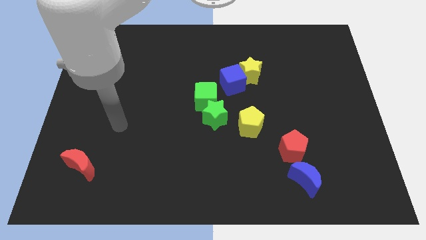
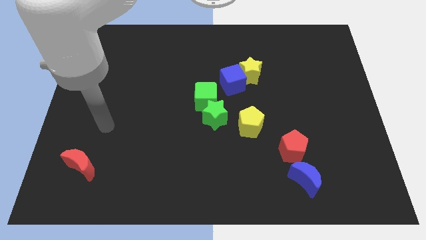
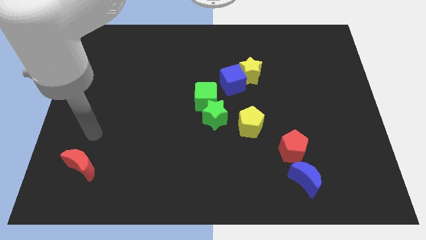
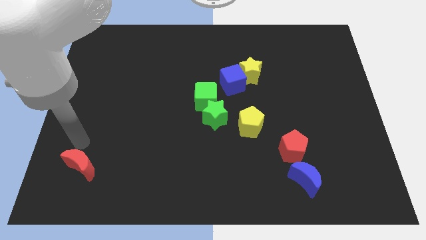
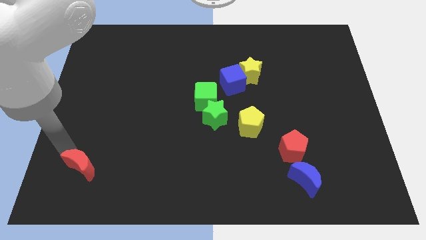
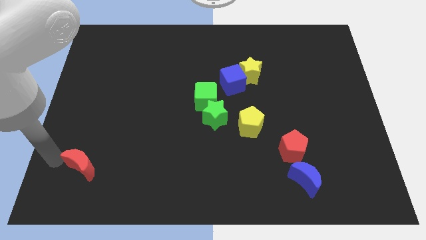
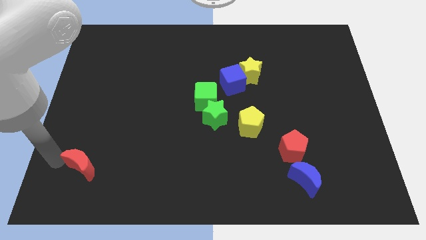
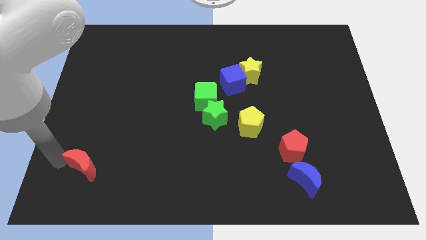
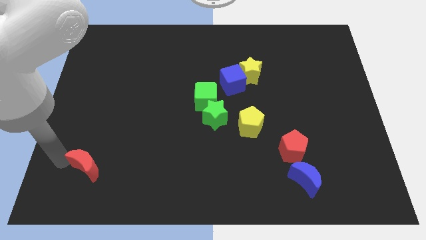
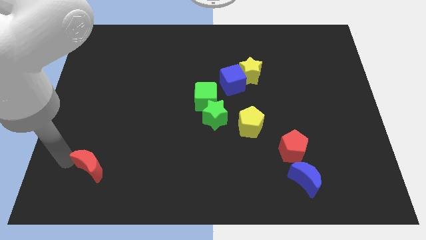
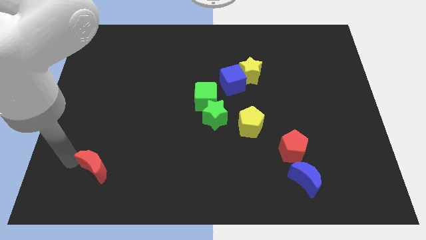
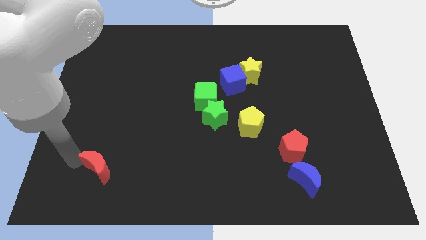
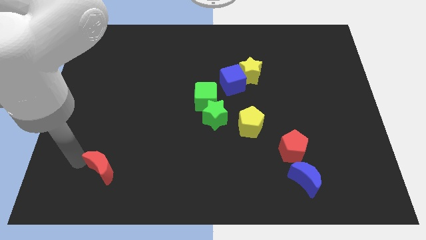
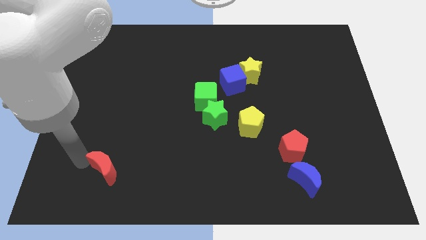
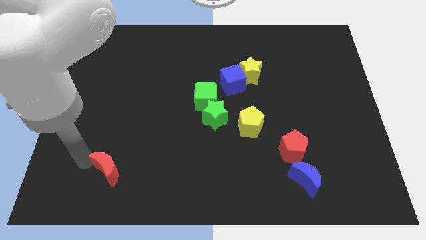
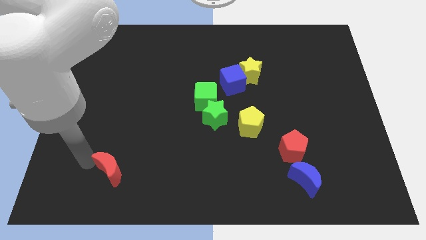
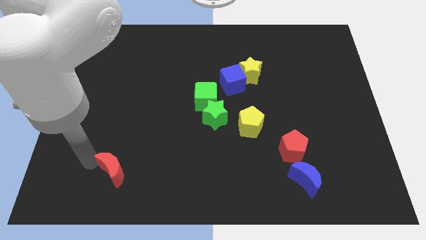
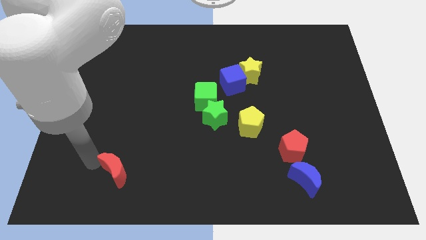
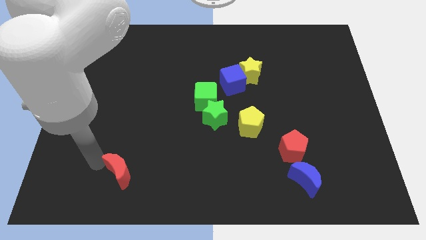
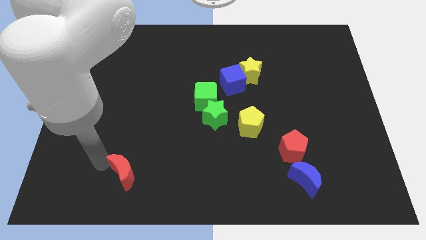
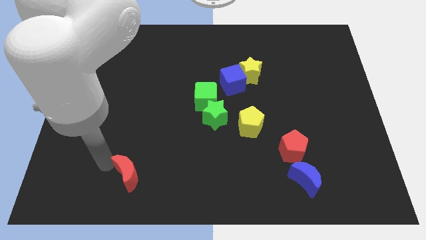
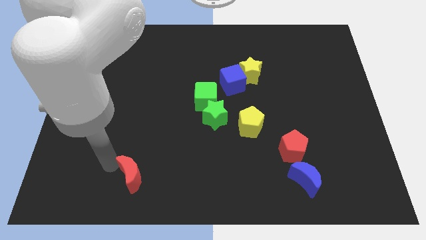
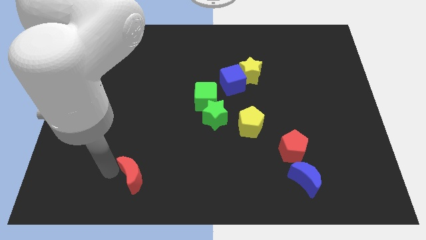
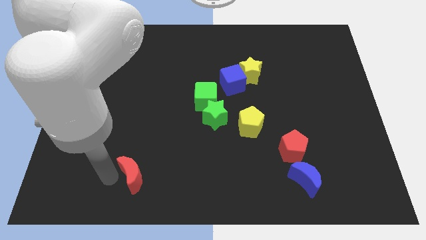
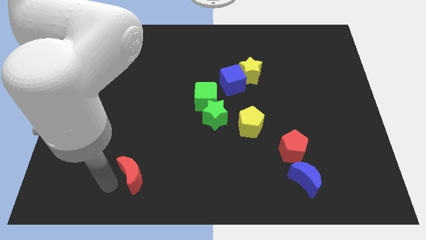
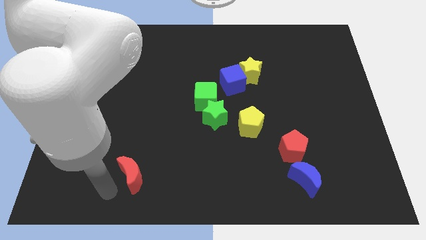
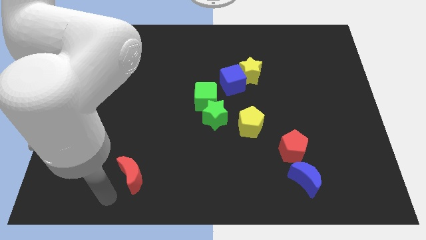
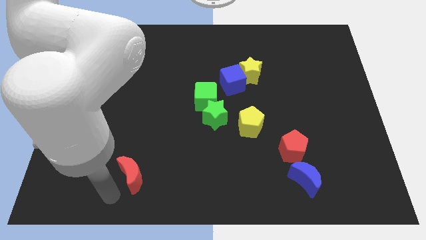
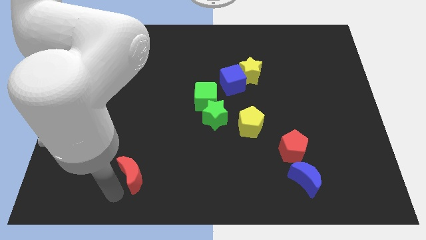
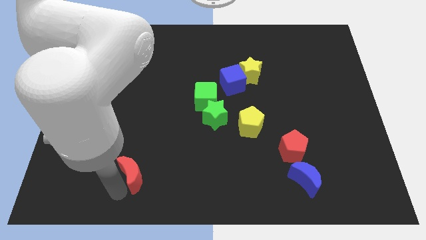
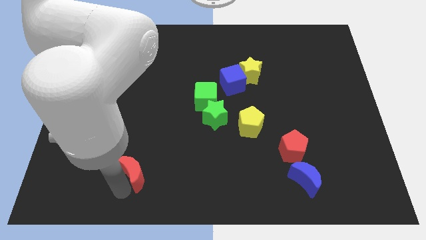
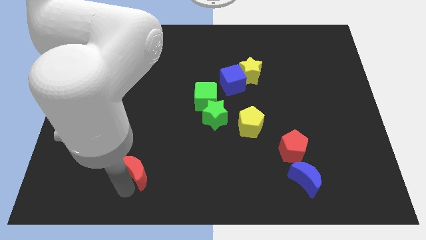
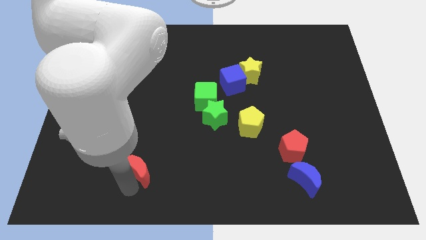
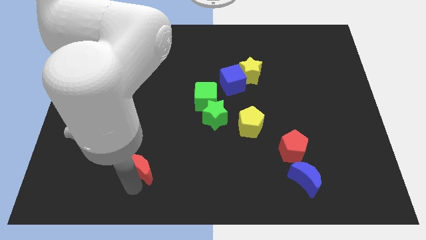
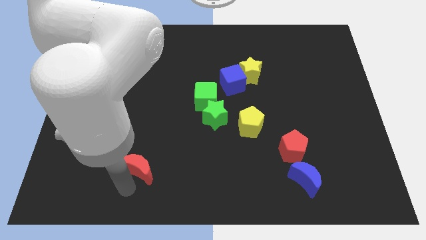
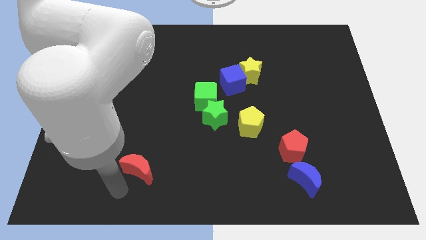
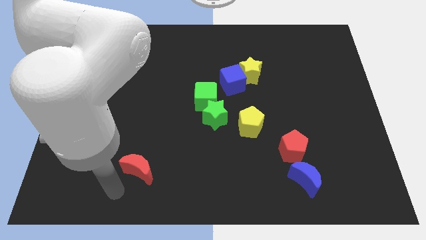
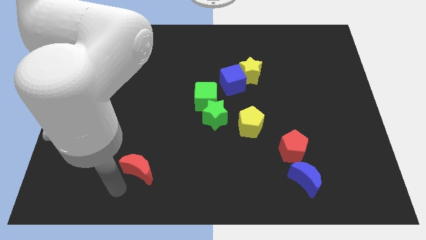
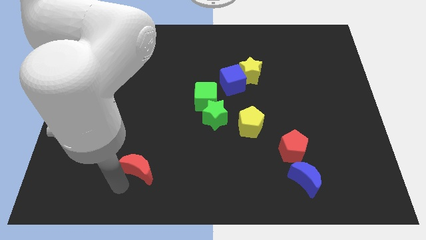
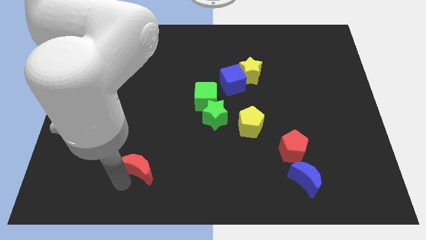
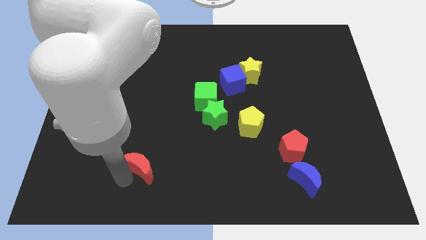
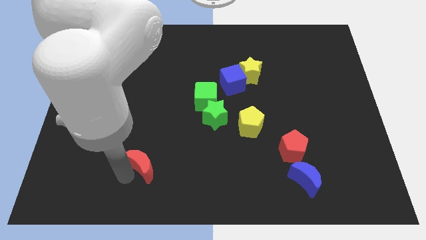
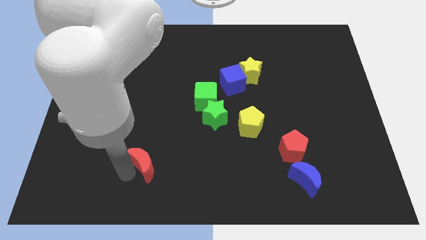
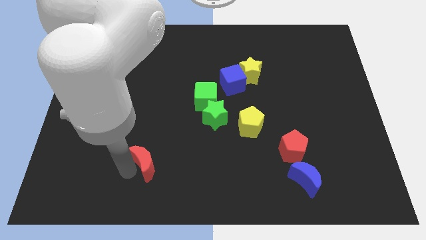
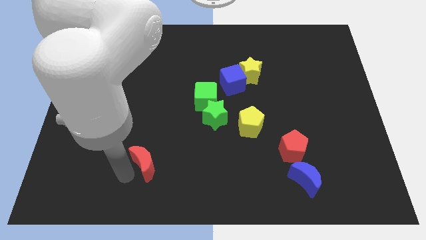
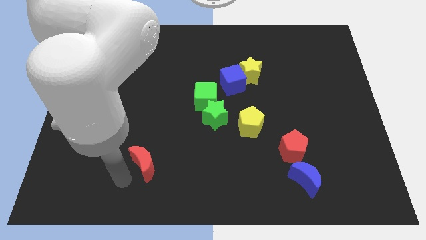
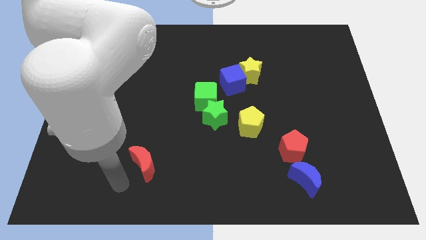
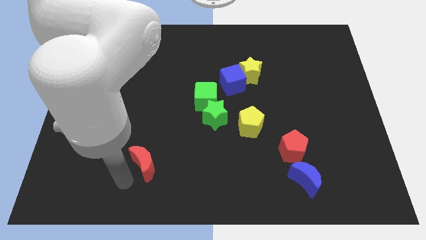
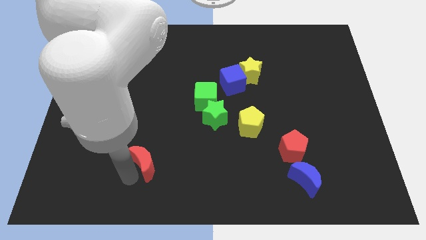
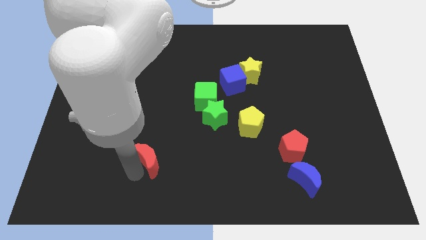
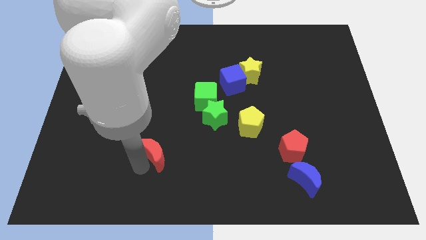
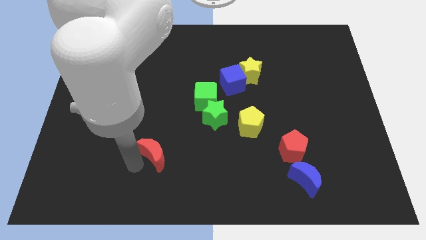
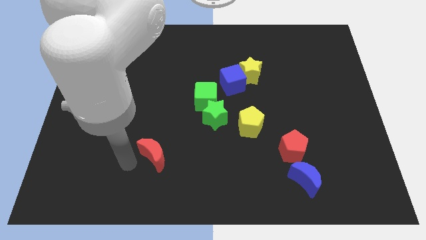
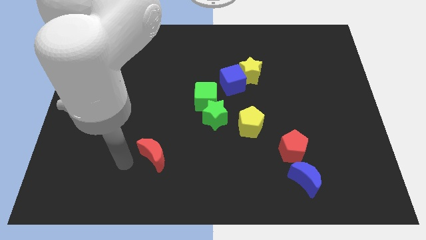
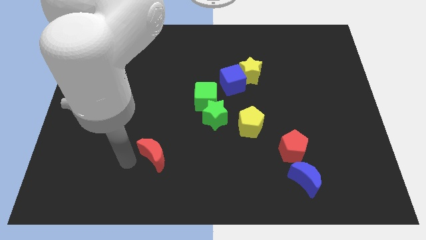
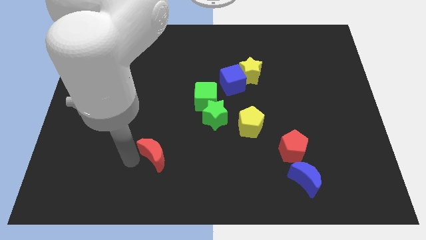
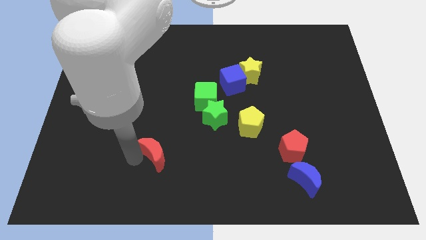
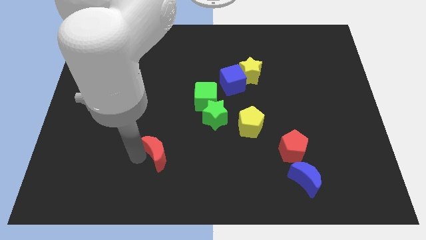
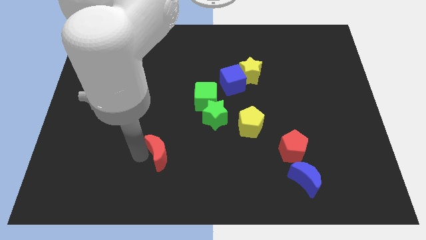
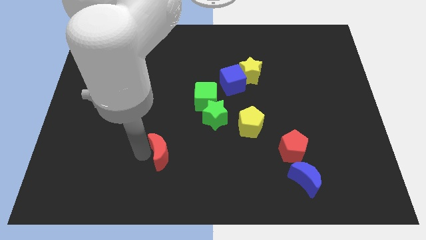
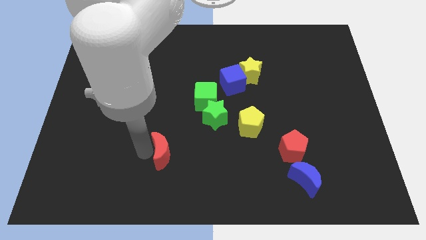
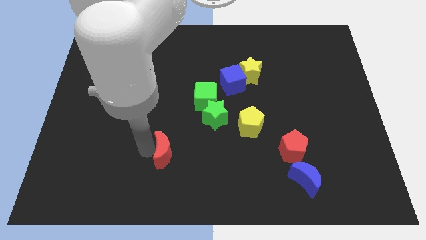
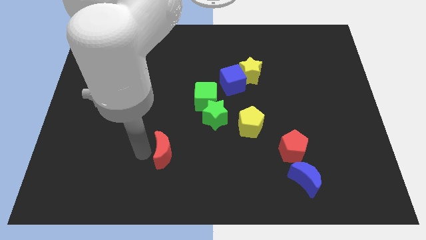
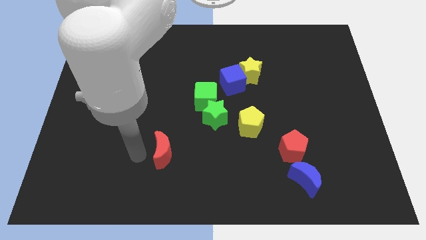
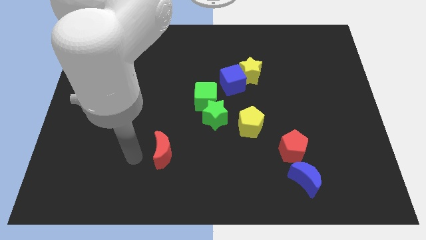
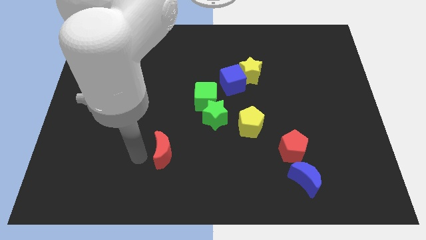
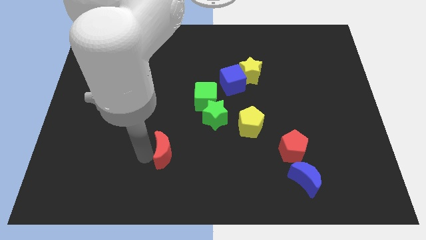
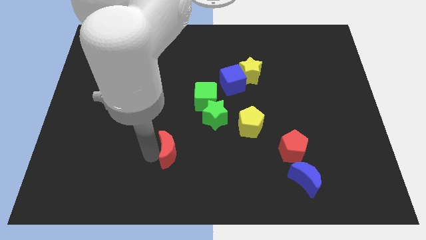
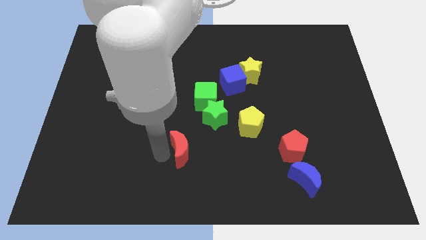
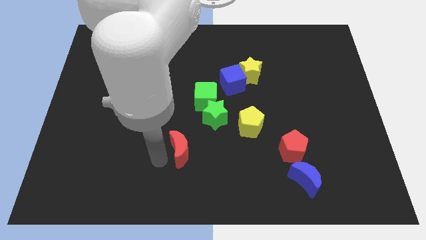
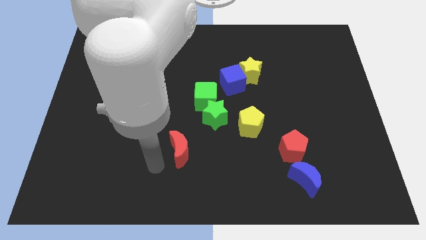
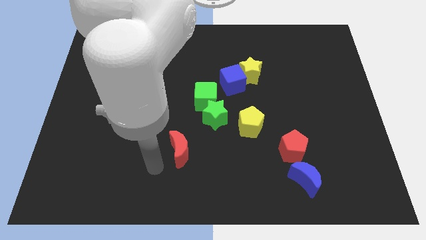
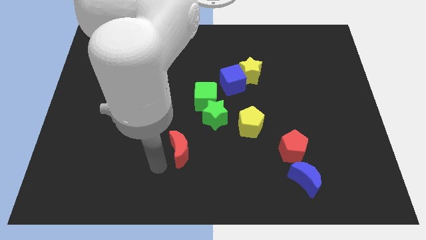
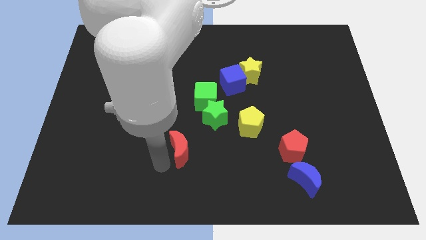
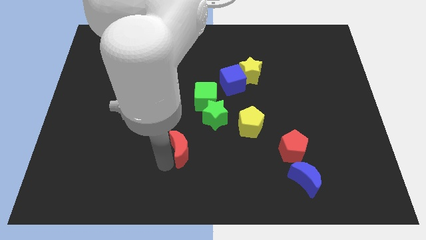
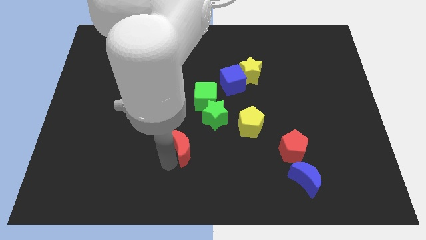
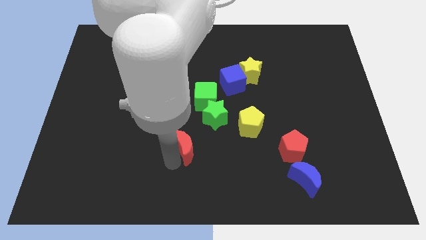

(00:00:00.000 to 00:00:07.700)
slide the red moon below the green cube
